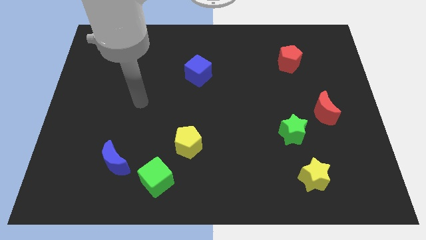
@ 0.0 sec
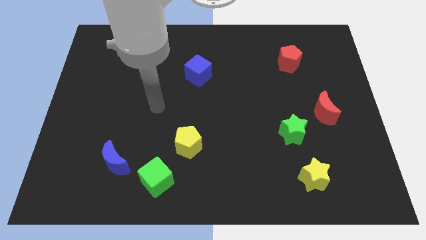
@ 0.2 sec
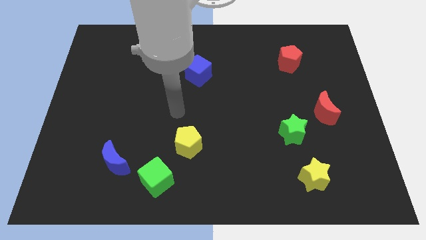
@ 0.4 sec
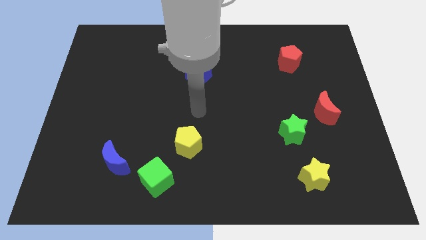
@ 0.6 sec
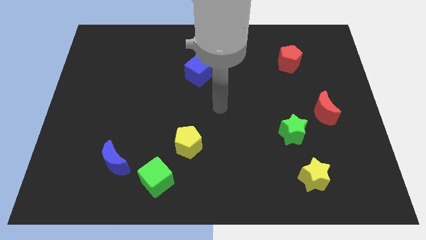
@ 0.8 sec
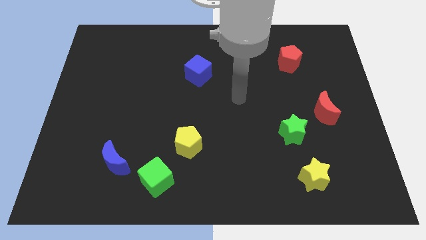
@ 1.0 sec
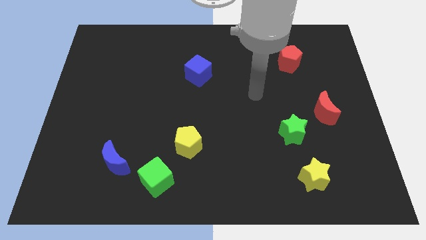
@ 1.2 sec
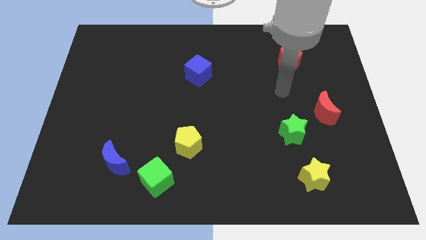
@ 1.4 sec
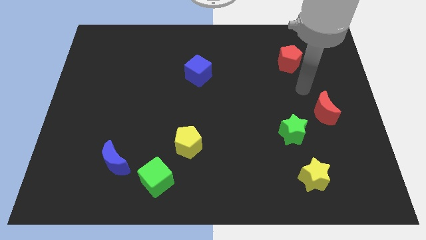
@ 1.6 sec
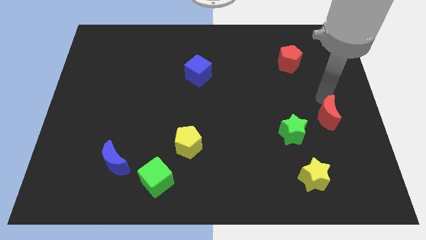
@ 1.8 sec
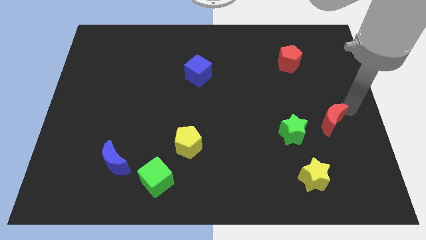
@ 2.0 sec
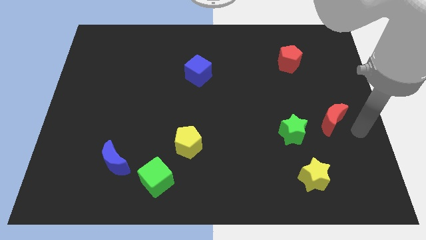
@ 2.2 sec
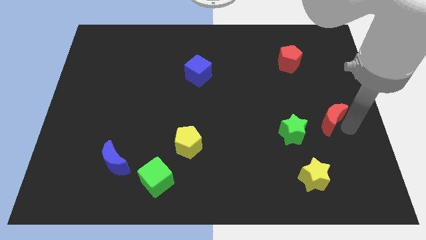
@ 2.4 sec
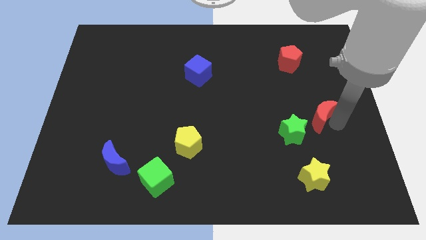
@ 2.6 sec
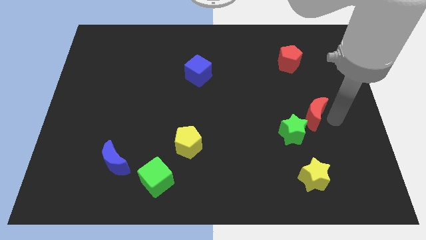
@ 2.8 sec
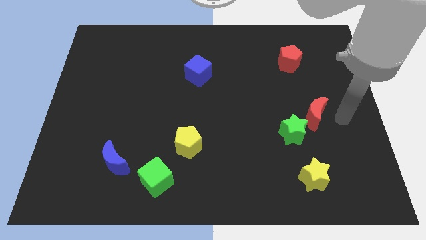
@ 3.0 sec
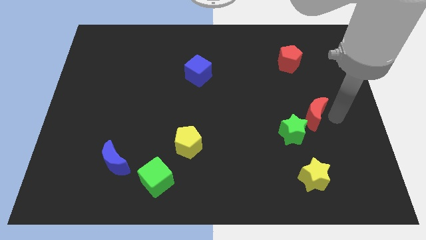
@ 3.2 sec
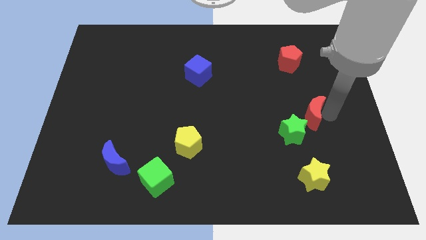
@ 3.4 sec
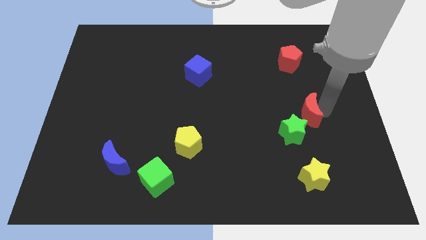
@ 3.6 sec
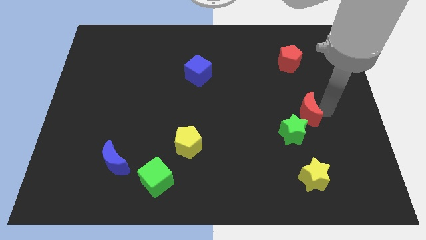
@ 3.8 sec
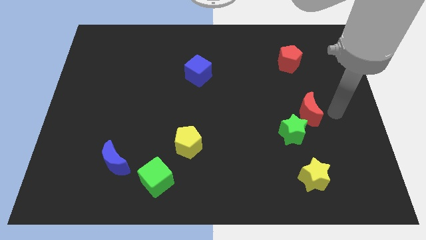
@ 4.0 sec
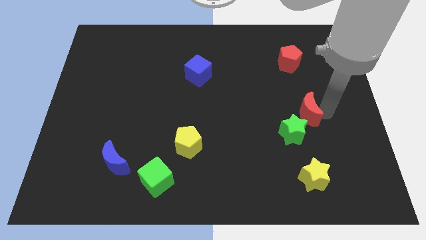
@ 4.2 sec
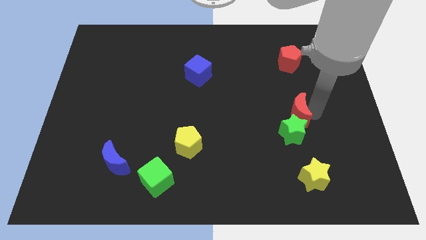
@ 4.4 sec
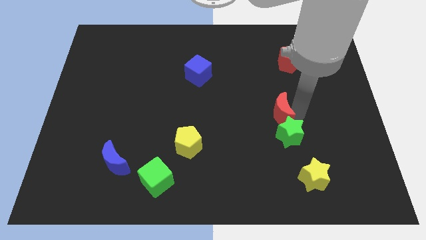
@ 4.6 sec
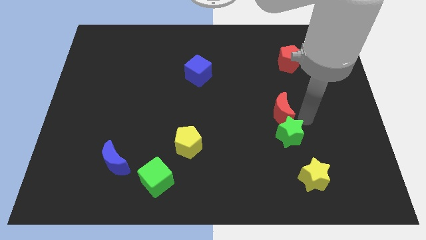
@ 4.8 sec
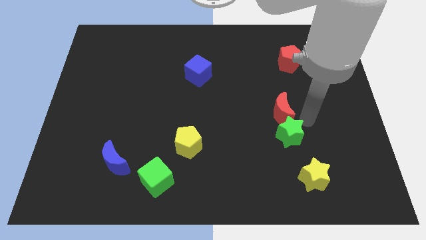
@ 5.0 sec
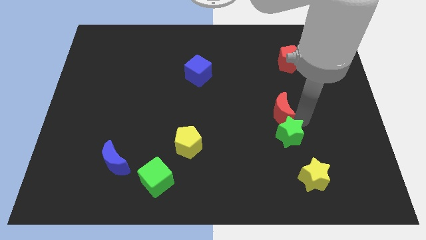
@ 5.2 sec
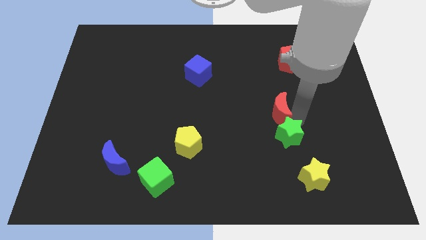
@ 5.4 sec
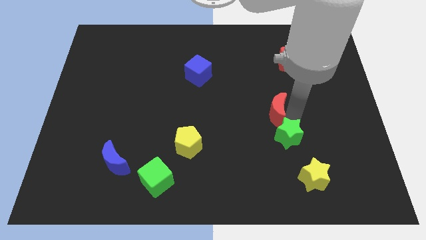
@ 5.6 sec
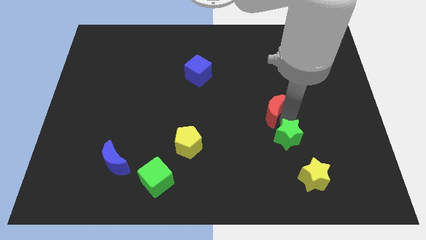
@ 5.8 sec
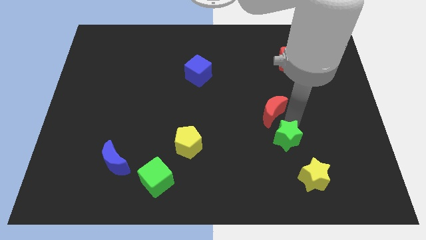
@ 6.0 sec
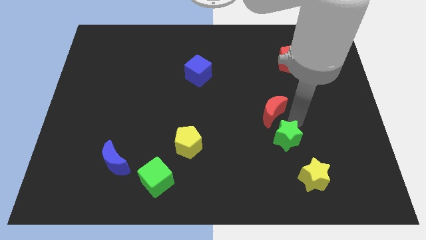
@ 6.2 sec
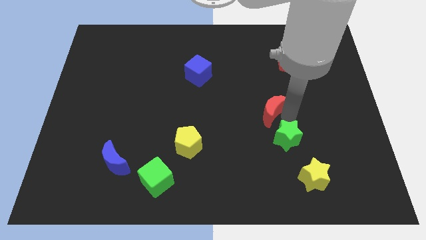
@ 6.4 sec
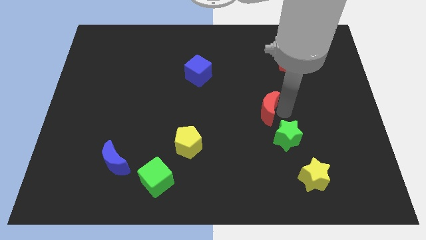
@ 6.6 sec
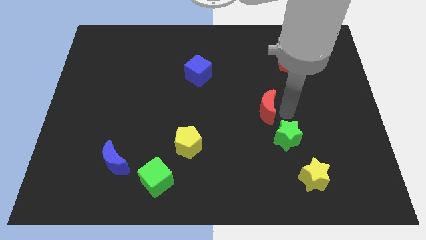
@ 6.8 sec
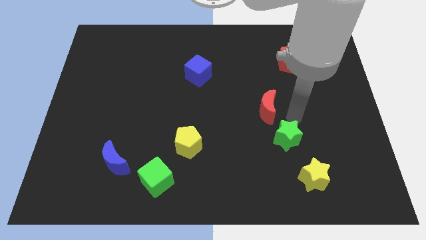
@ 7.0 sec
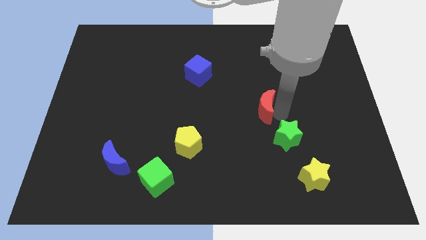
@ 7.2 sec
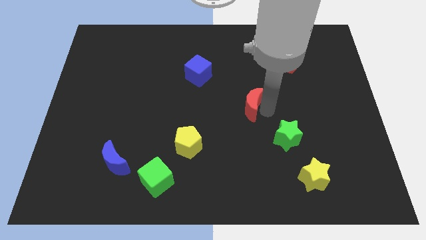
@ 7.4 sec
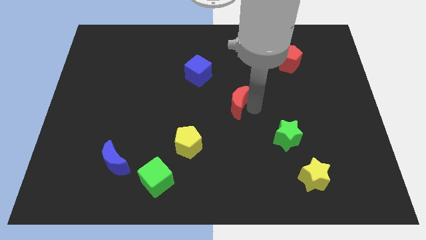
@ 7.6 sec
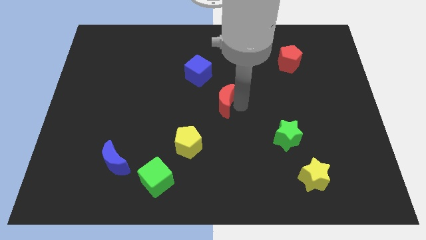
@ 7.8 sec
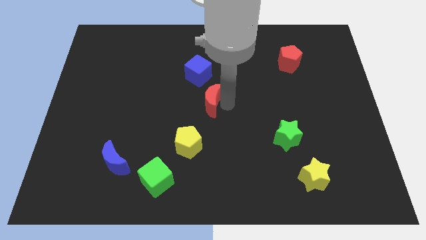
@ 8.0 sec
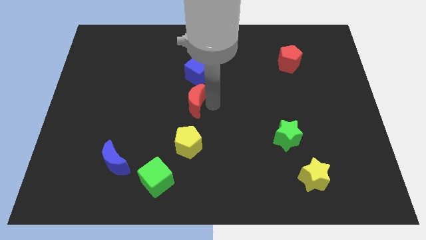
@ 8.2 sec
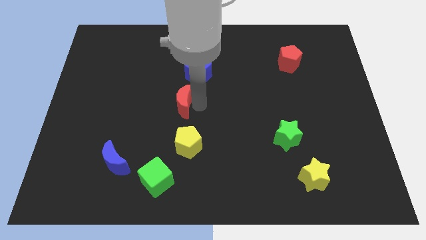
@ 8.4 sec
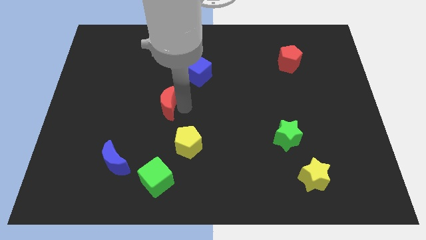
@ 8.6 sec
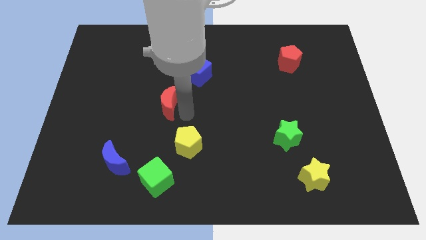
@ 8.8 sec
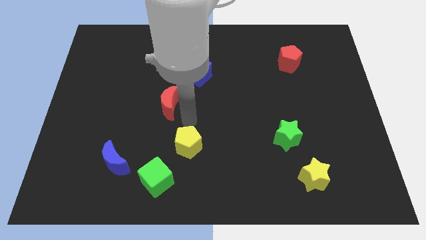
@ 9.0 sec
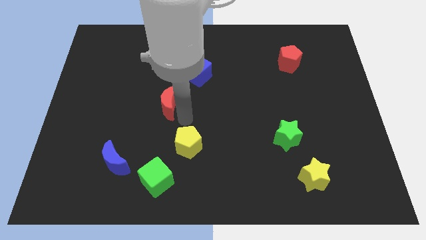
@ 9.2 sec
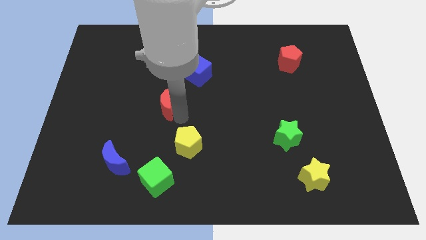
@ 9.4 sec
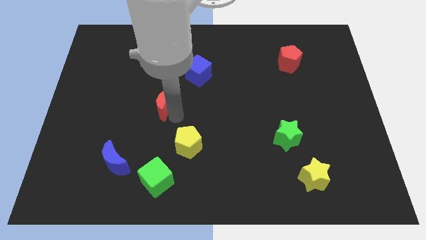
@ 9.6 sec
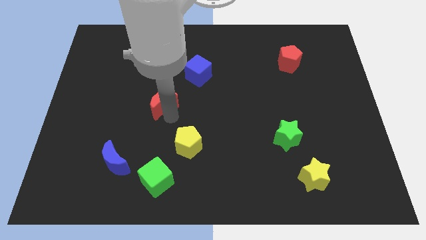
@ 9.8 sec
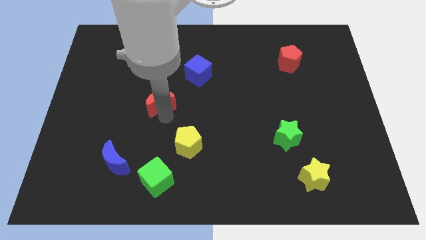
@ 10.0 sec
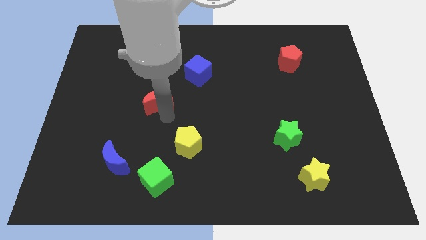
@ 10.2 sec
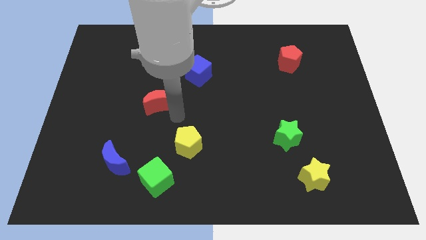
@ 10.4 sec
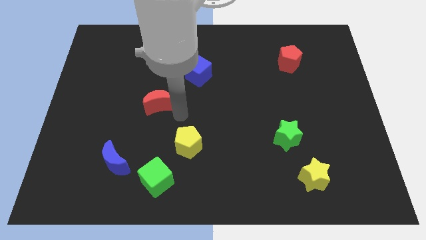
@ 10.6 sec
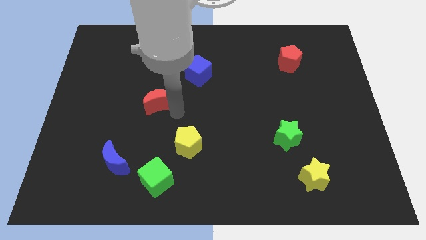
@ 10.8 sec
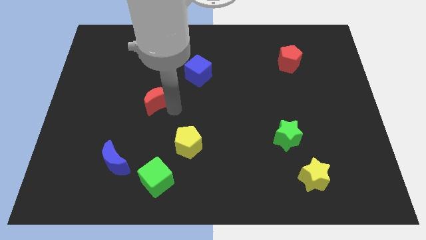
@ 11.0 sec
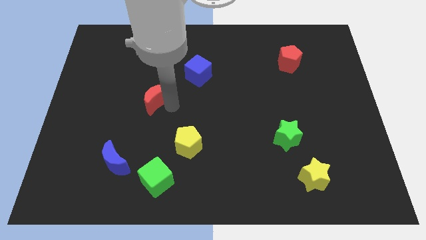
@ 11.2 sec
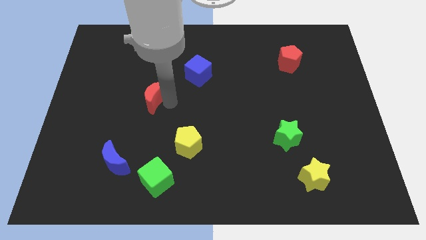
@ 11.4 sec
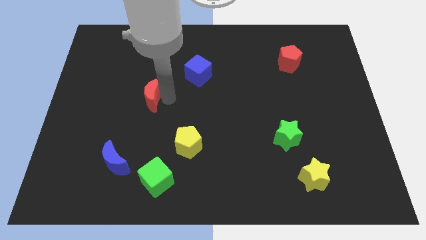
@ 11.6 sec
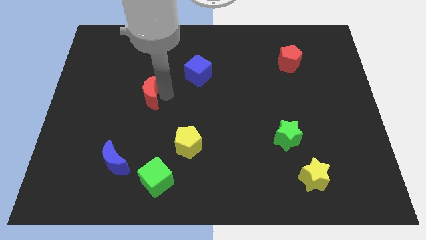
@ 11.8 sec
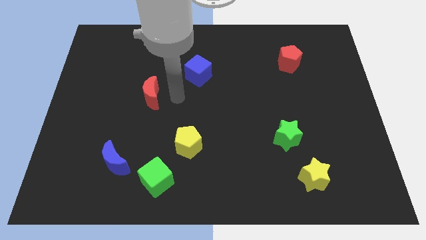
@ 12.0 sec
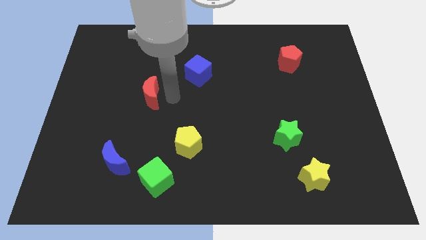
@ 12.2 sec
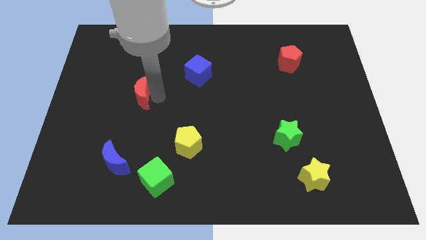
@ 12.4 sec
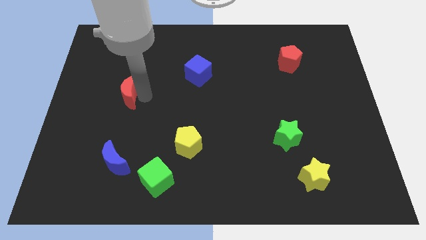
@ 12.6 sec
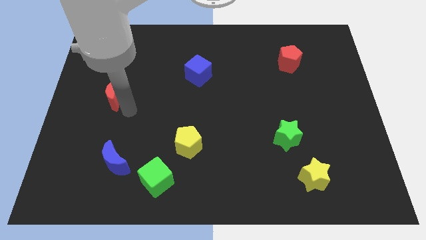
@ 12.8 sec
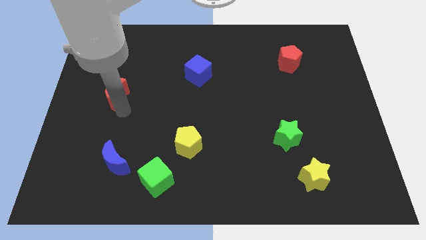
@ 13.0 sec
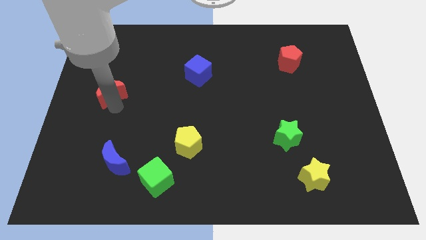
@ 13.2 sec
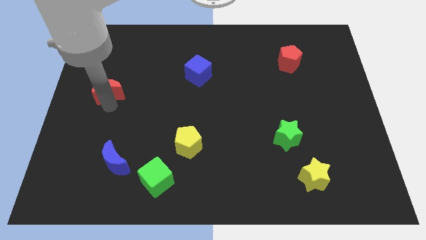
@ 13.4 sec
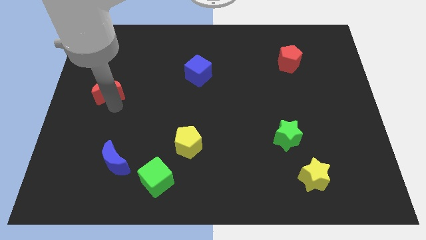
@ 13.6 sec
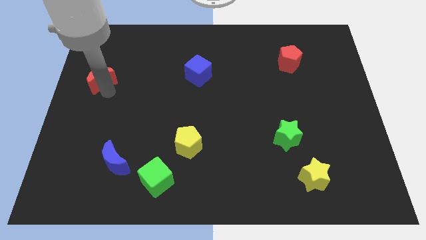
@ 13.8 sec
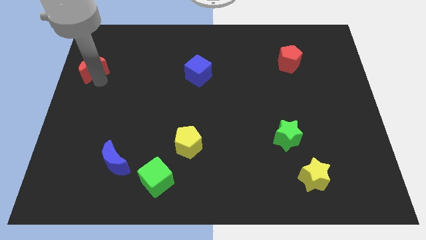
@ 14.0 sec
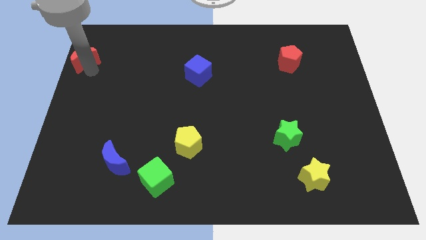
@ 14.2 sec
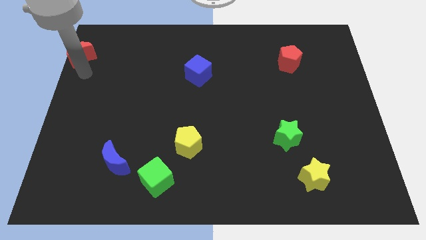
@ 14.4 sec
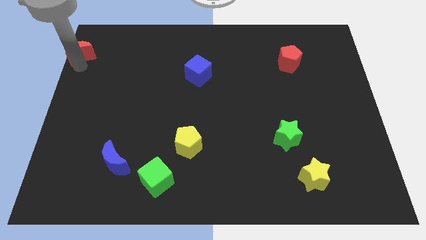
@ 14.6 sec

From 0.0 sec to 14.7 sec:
push the red moon to the top left of the board
